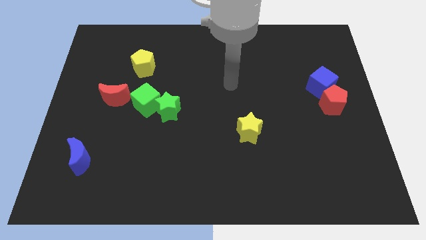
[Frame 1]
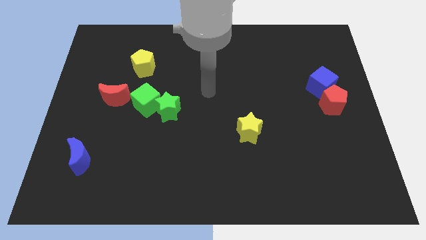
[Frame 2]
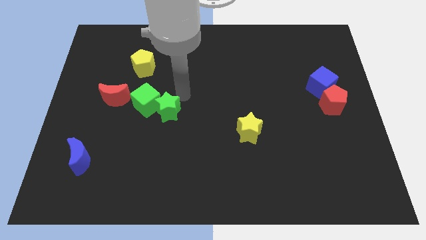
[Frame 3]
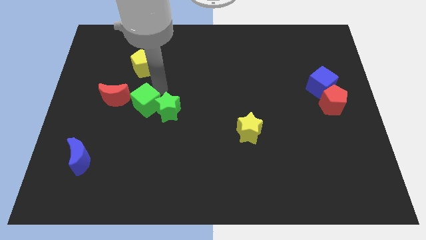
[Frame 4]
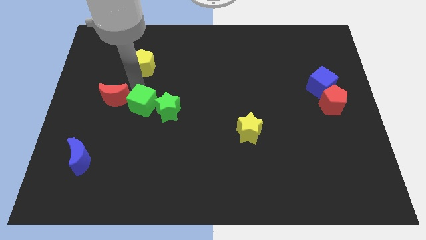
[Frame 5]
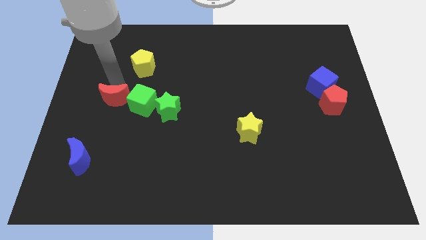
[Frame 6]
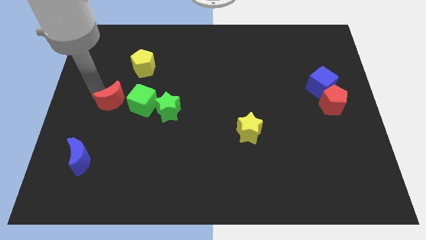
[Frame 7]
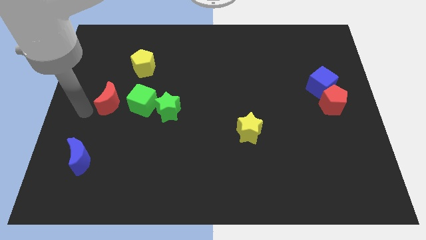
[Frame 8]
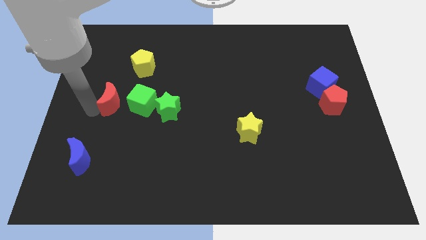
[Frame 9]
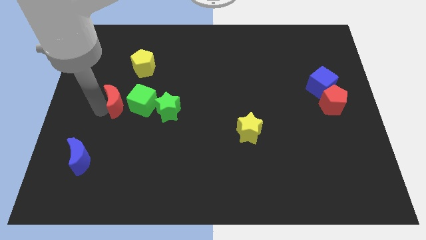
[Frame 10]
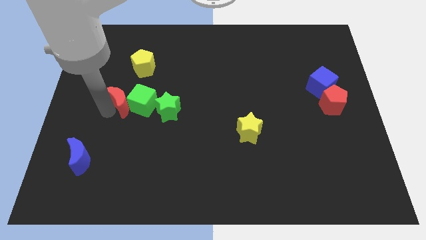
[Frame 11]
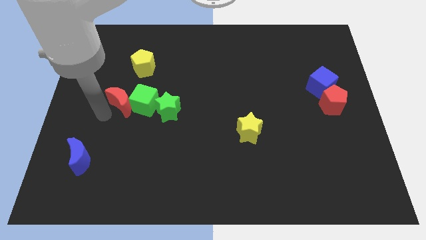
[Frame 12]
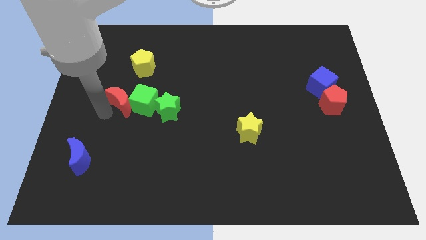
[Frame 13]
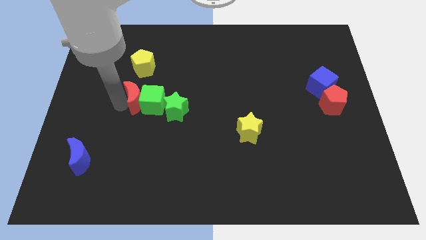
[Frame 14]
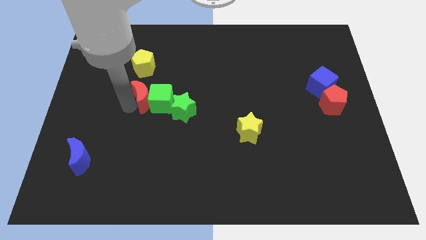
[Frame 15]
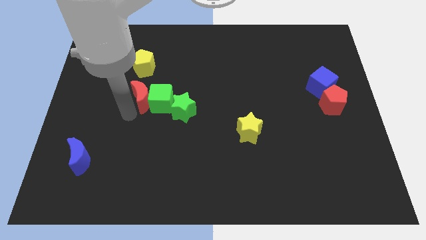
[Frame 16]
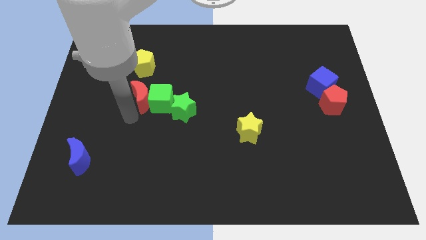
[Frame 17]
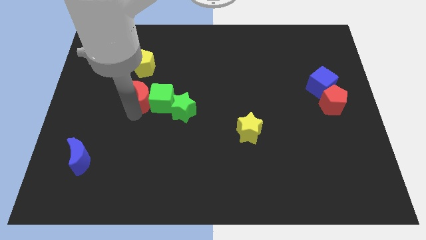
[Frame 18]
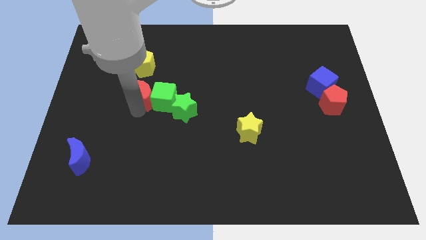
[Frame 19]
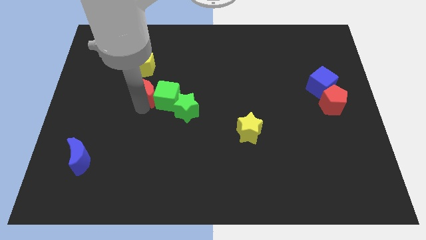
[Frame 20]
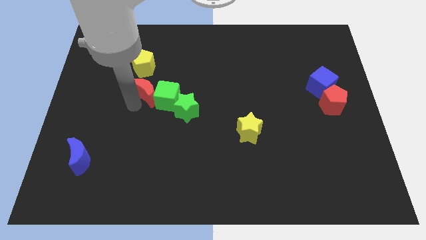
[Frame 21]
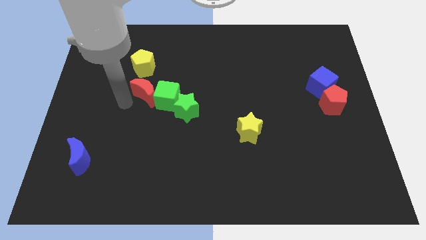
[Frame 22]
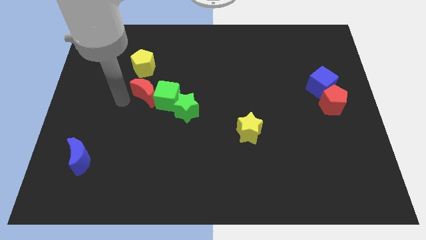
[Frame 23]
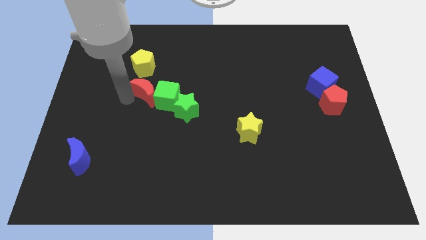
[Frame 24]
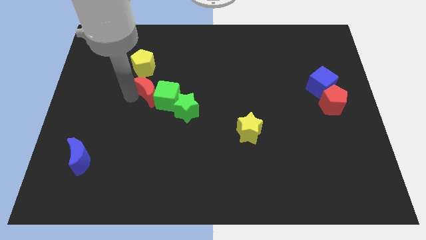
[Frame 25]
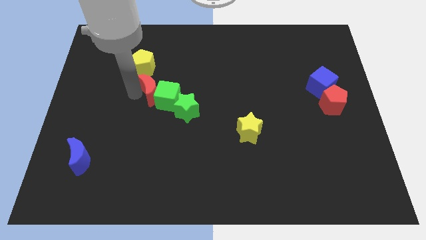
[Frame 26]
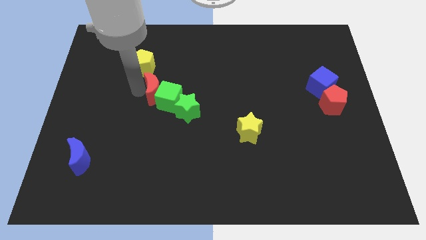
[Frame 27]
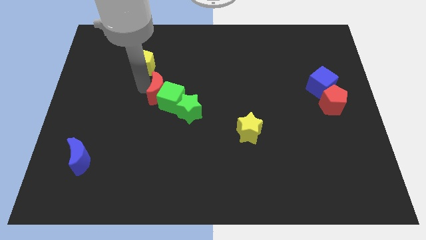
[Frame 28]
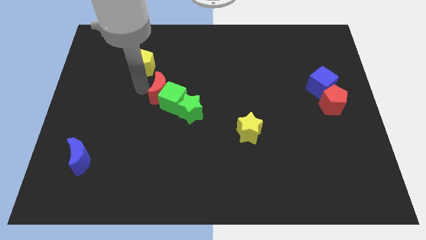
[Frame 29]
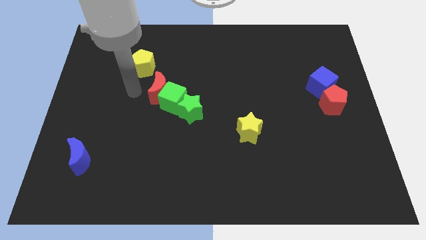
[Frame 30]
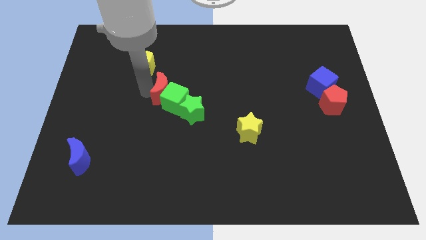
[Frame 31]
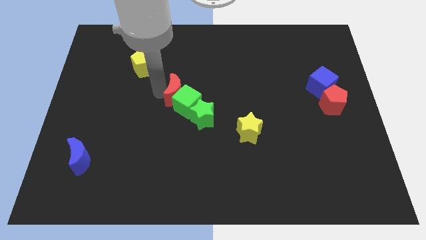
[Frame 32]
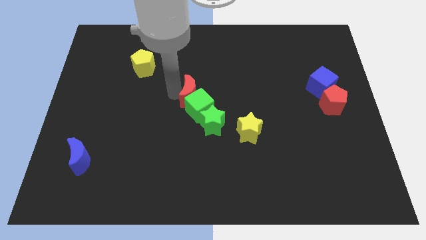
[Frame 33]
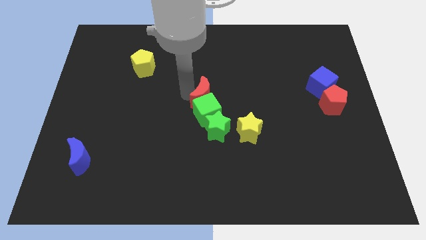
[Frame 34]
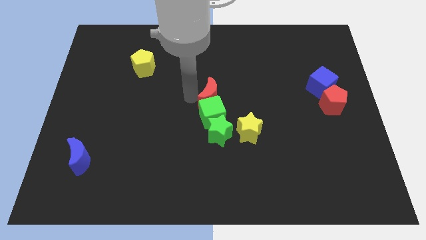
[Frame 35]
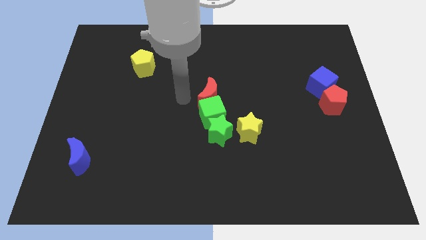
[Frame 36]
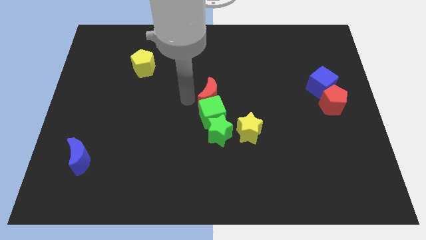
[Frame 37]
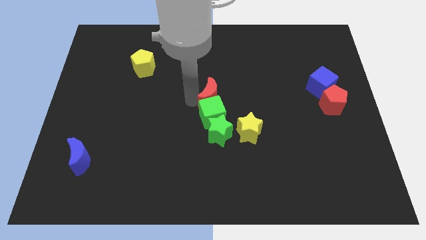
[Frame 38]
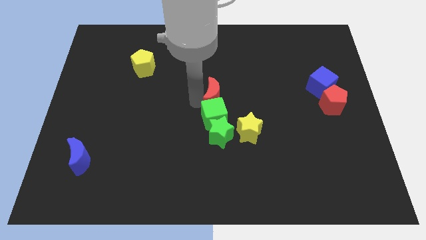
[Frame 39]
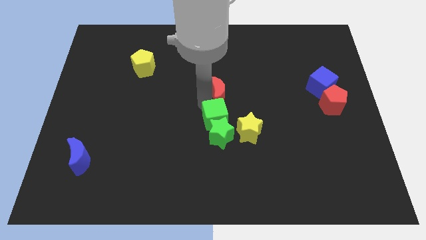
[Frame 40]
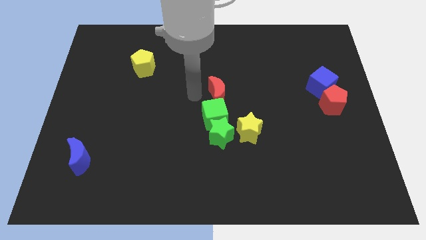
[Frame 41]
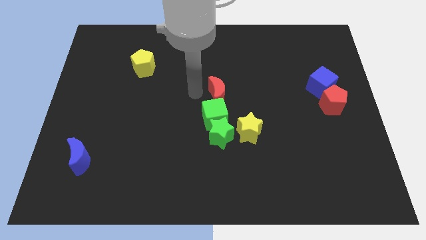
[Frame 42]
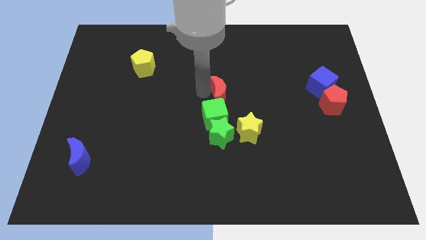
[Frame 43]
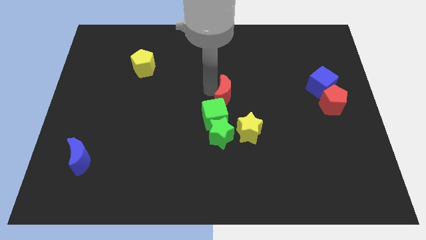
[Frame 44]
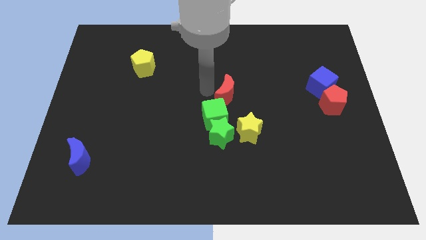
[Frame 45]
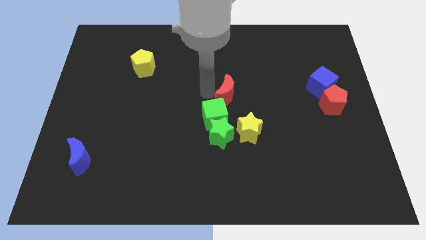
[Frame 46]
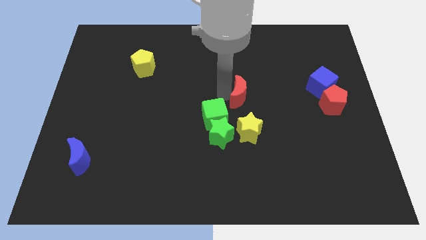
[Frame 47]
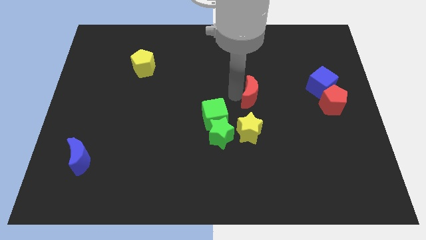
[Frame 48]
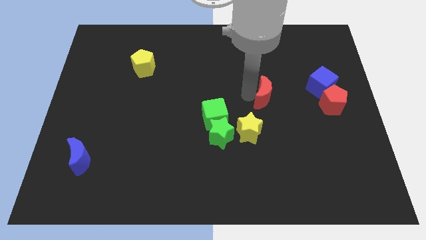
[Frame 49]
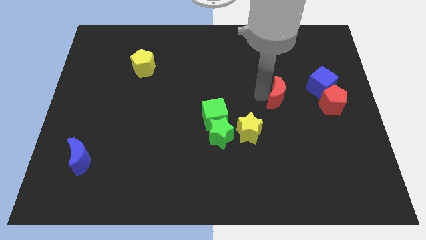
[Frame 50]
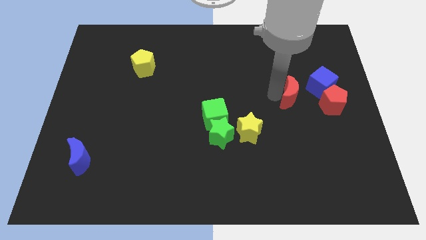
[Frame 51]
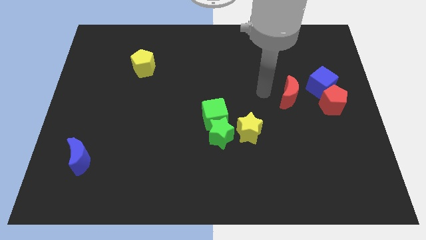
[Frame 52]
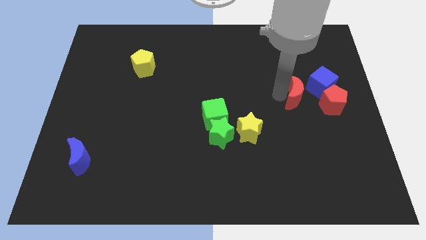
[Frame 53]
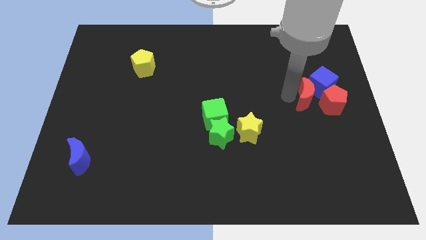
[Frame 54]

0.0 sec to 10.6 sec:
move the red moon close to the red pentagon

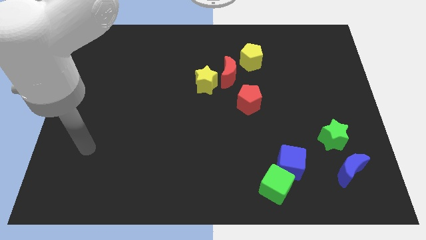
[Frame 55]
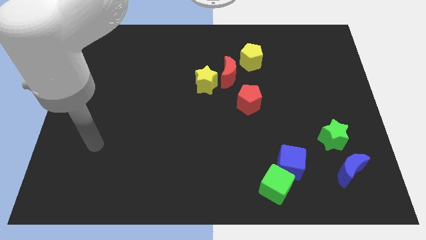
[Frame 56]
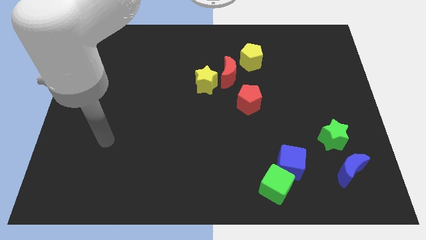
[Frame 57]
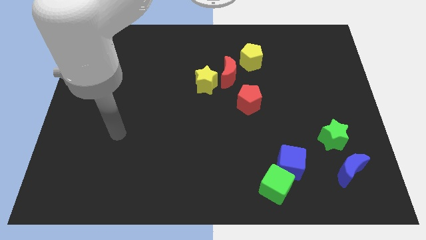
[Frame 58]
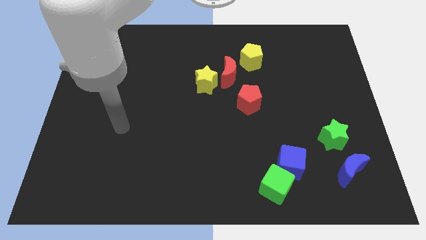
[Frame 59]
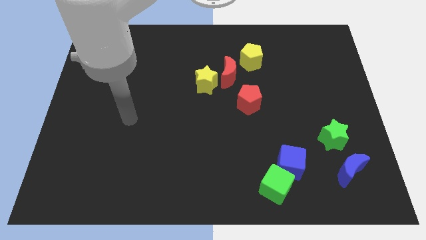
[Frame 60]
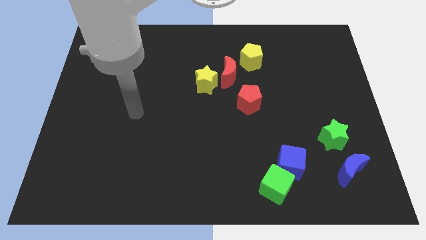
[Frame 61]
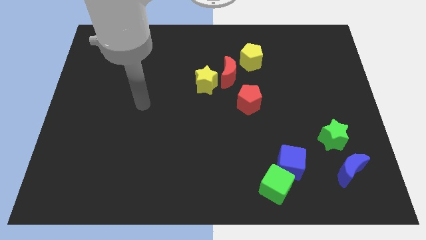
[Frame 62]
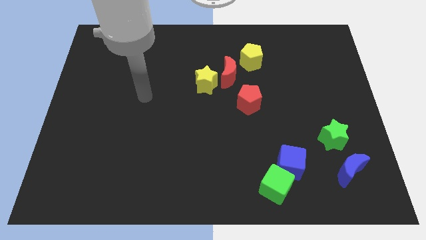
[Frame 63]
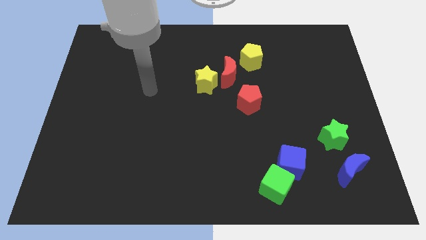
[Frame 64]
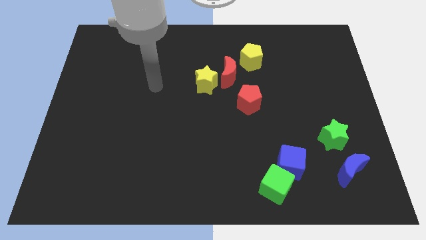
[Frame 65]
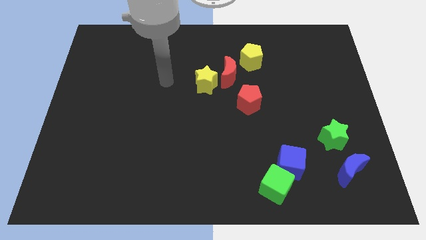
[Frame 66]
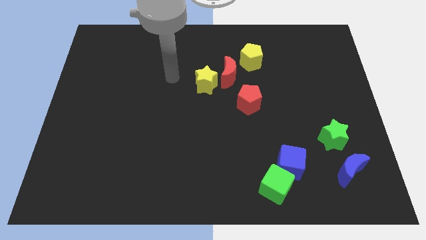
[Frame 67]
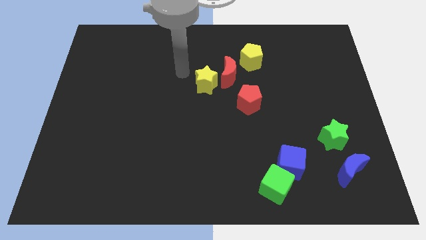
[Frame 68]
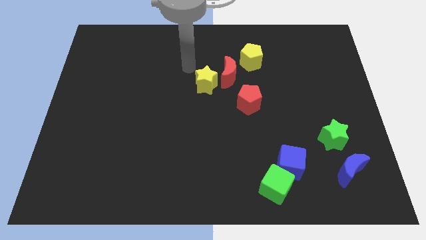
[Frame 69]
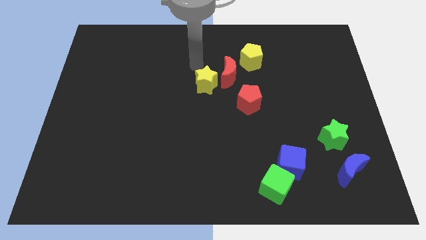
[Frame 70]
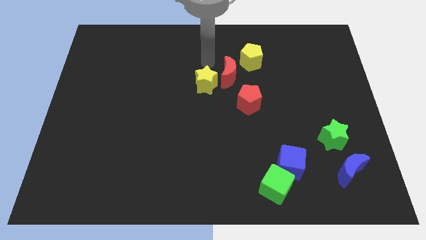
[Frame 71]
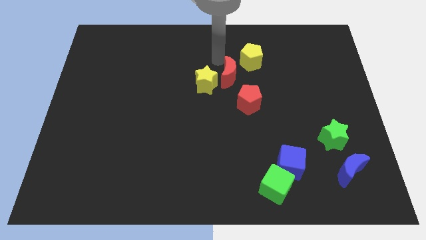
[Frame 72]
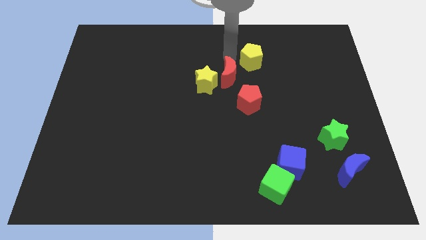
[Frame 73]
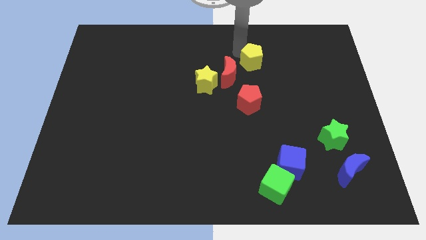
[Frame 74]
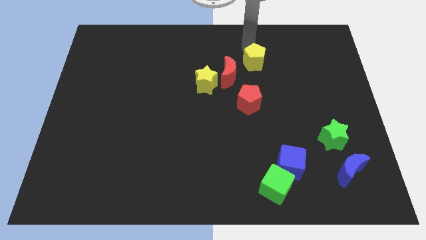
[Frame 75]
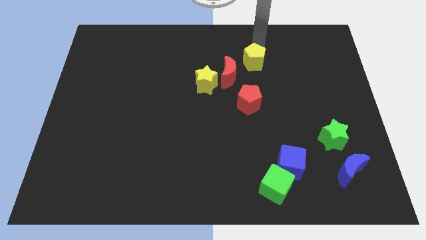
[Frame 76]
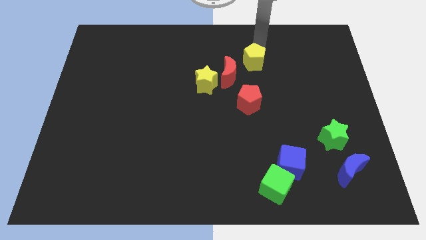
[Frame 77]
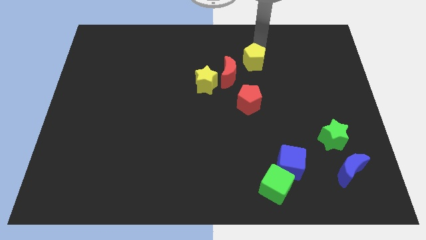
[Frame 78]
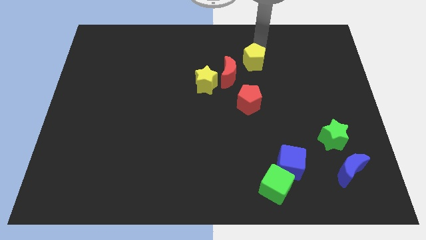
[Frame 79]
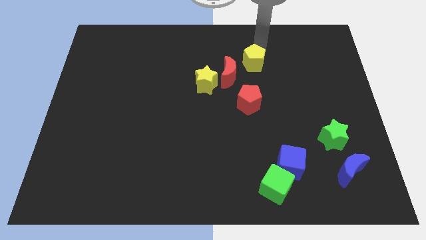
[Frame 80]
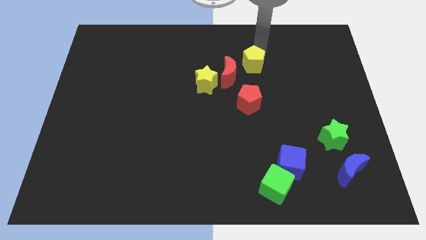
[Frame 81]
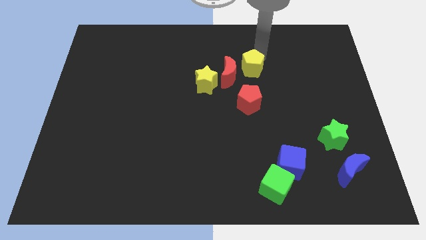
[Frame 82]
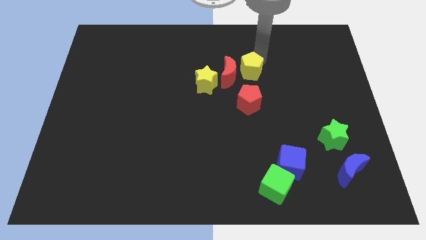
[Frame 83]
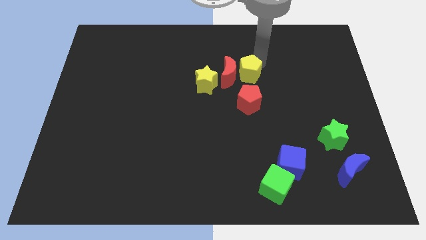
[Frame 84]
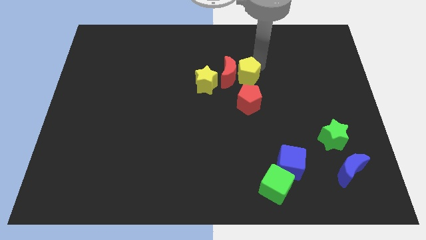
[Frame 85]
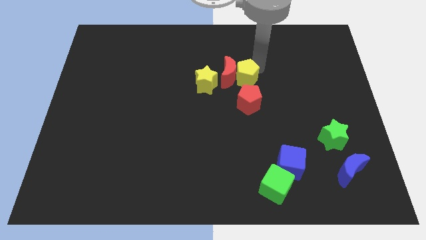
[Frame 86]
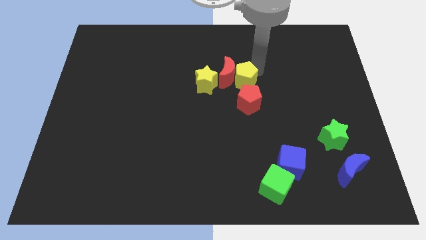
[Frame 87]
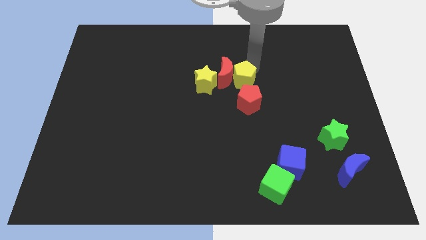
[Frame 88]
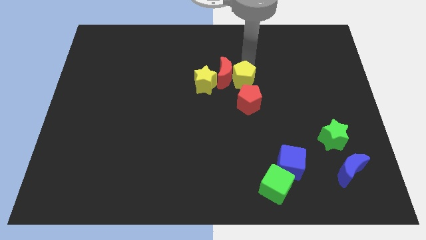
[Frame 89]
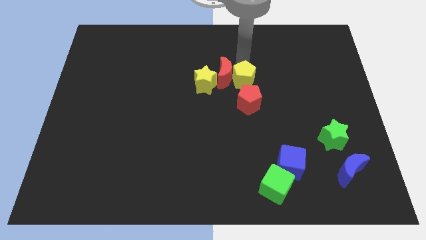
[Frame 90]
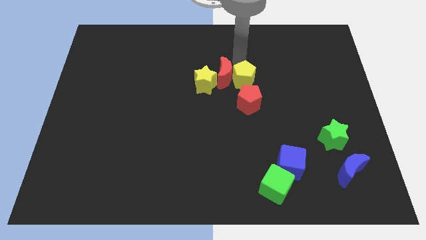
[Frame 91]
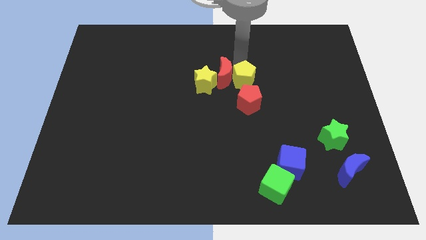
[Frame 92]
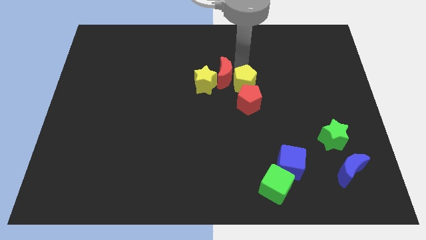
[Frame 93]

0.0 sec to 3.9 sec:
put the yellow pentagon next to the red pentagon
